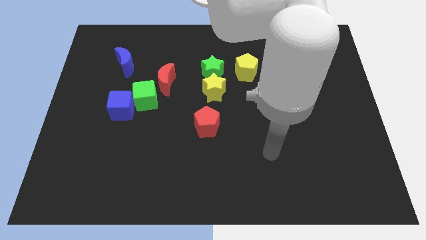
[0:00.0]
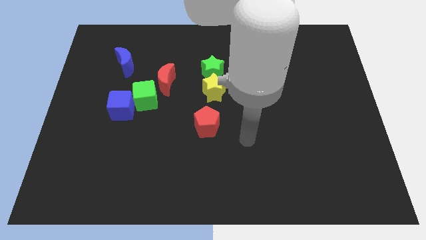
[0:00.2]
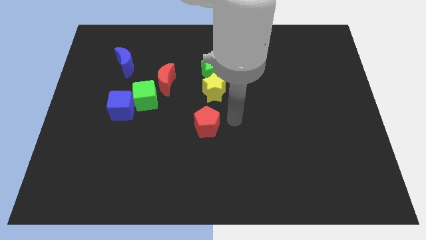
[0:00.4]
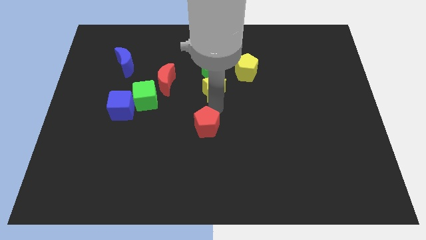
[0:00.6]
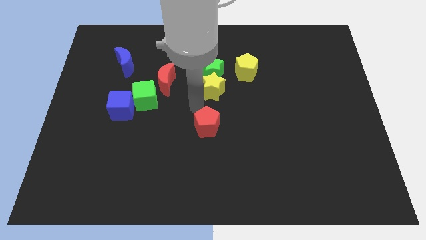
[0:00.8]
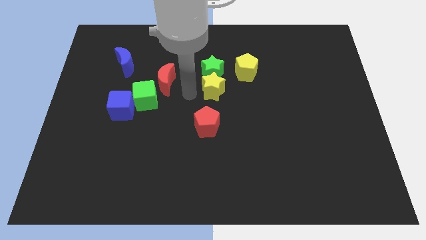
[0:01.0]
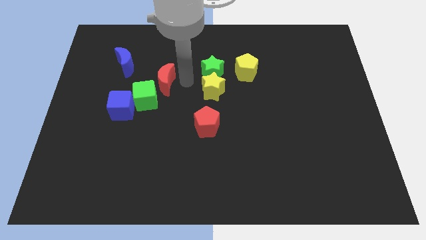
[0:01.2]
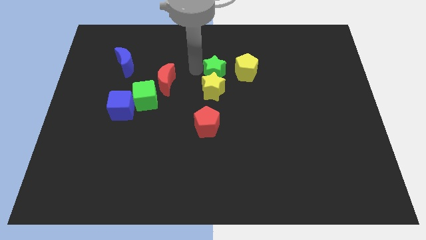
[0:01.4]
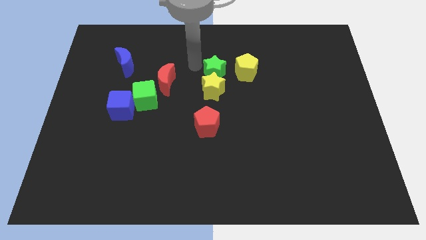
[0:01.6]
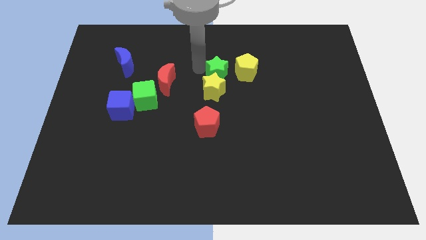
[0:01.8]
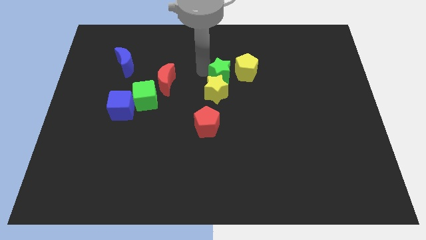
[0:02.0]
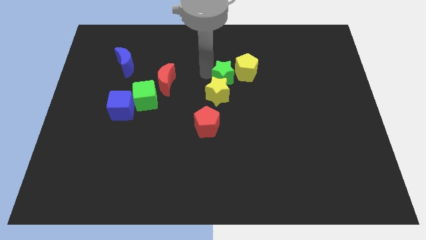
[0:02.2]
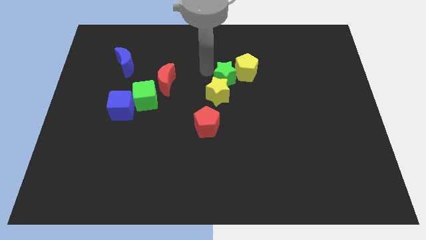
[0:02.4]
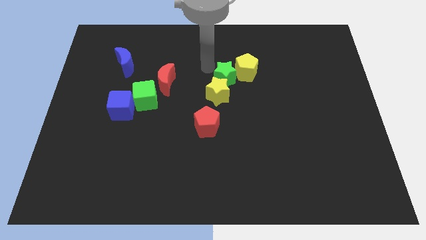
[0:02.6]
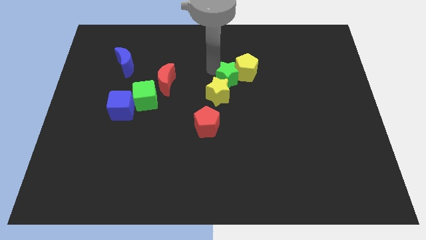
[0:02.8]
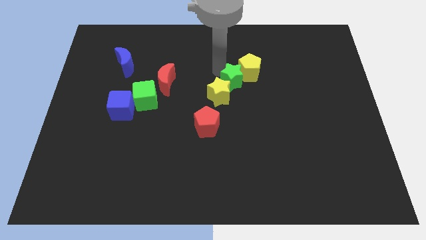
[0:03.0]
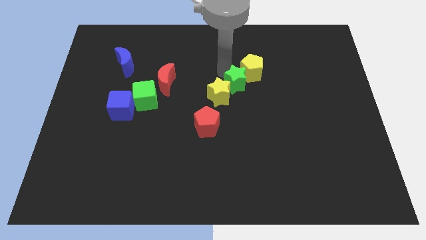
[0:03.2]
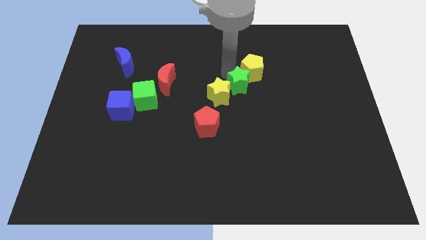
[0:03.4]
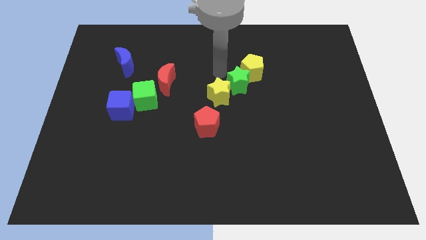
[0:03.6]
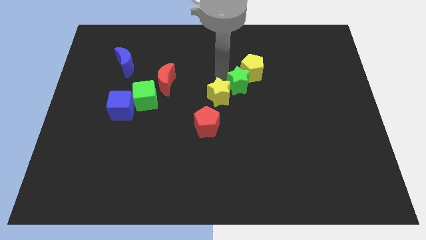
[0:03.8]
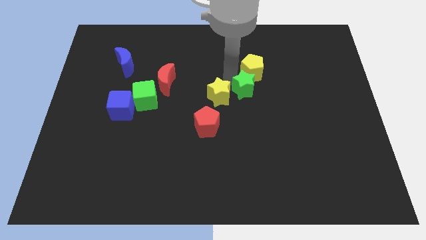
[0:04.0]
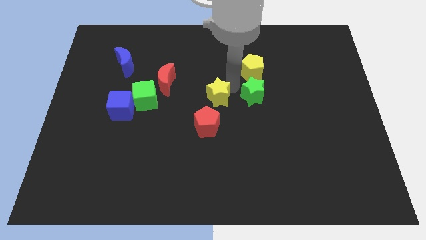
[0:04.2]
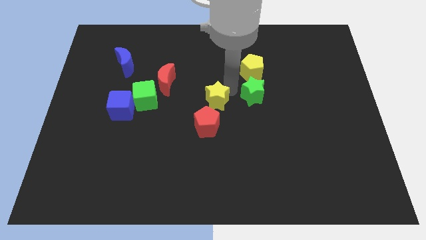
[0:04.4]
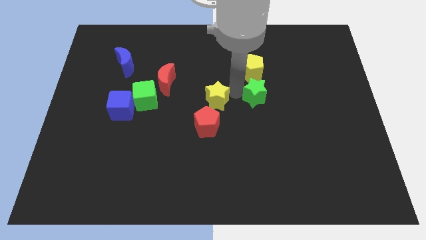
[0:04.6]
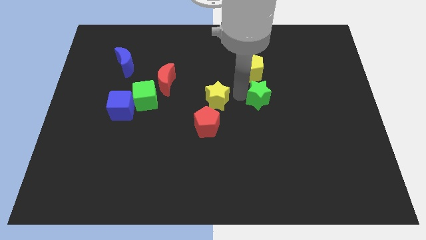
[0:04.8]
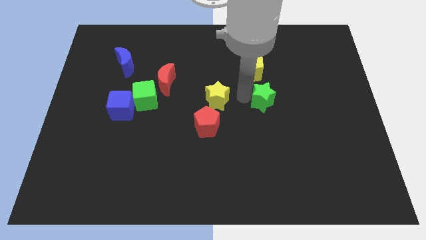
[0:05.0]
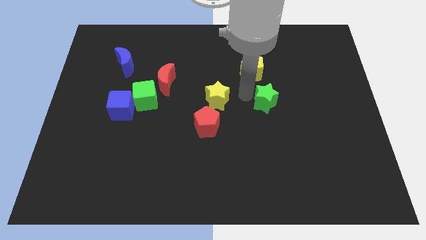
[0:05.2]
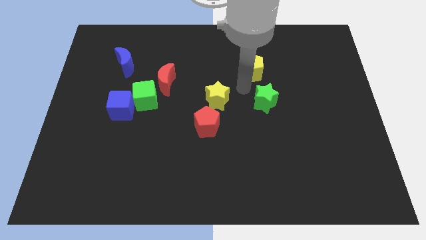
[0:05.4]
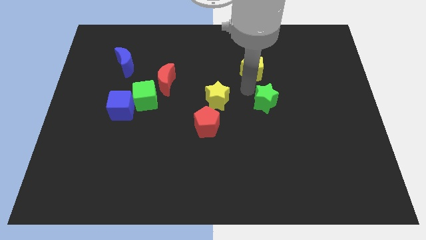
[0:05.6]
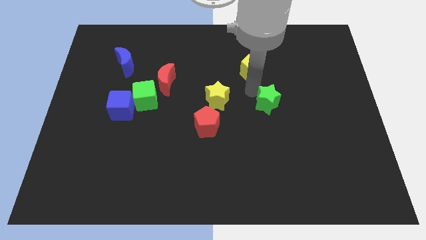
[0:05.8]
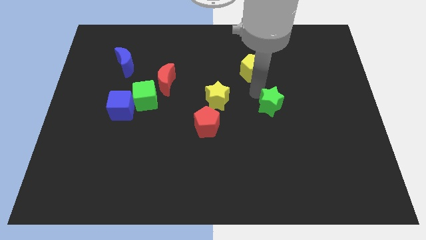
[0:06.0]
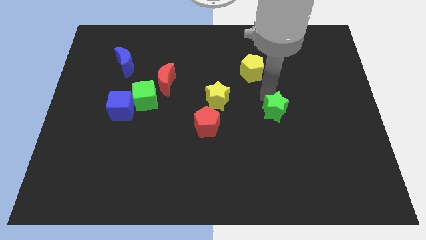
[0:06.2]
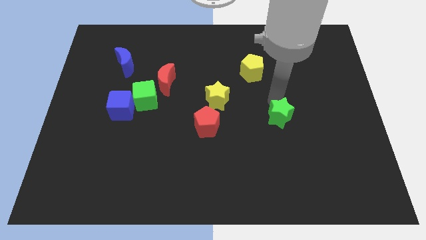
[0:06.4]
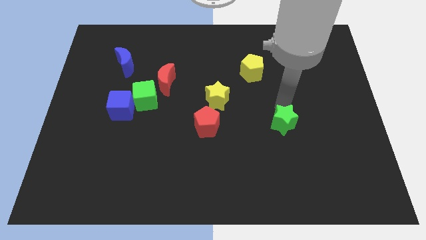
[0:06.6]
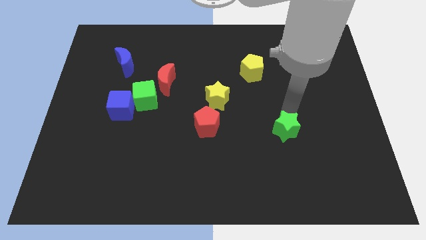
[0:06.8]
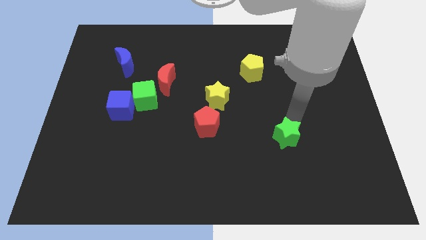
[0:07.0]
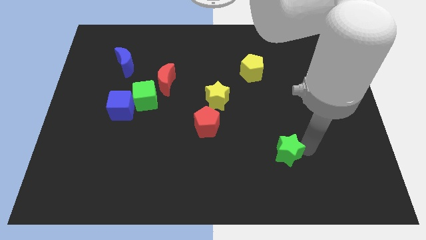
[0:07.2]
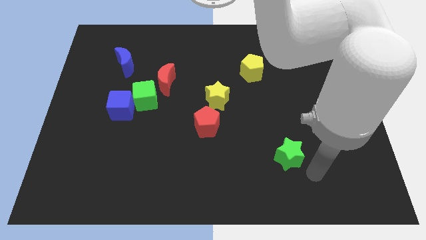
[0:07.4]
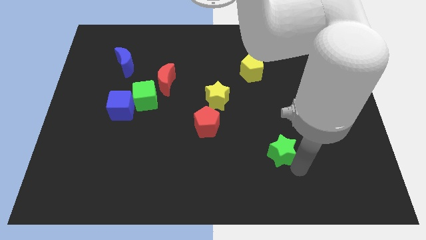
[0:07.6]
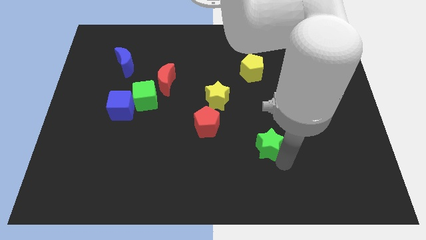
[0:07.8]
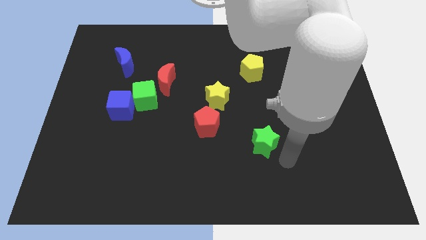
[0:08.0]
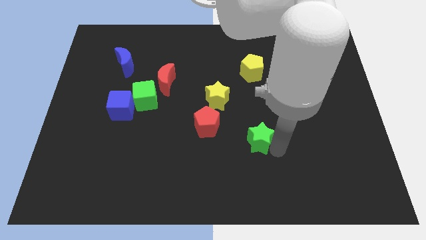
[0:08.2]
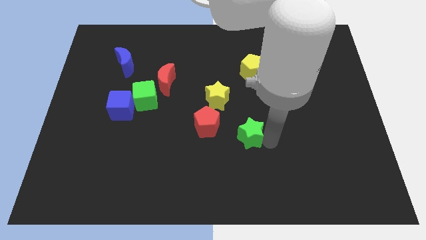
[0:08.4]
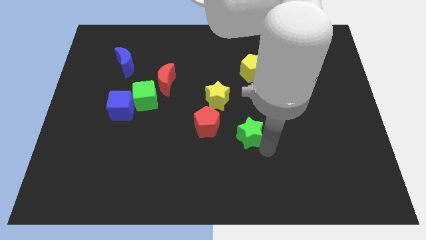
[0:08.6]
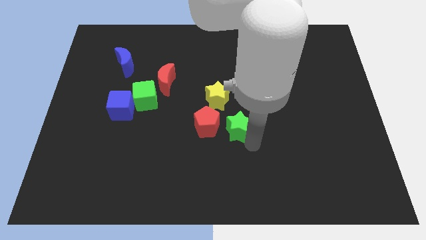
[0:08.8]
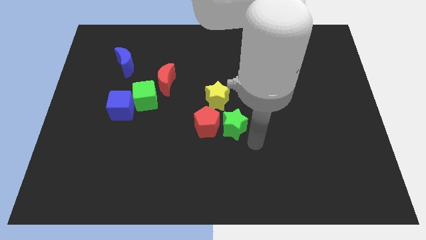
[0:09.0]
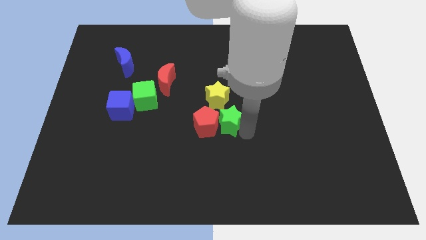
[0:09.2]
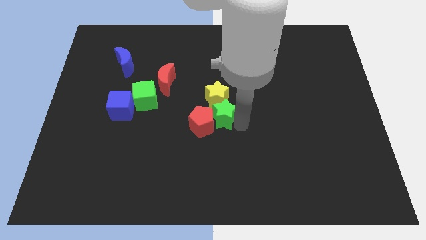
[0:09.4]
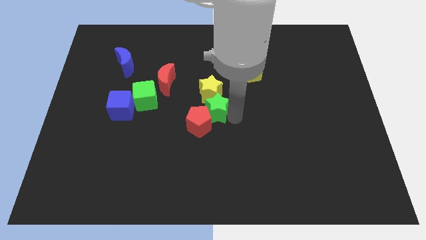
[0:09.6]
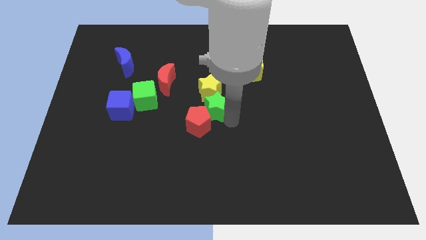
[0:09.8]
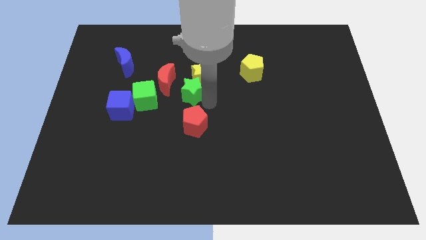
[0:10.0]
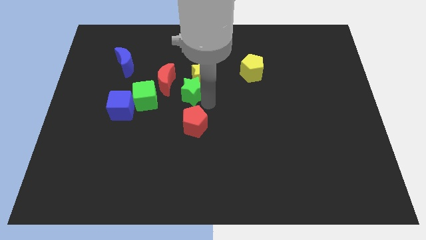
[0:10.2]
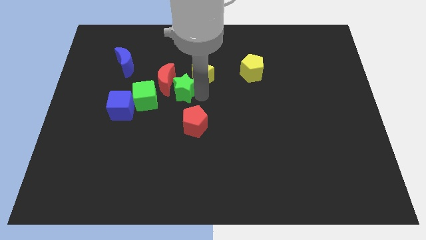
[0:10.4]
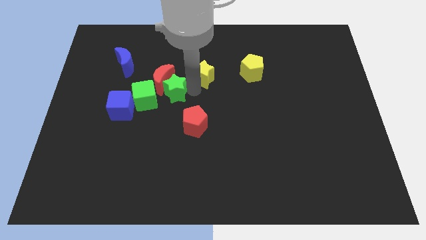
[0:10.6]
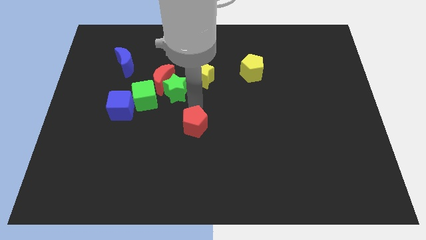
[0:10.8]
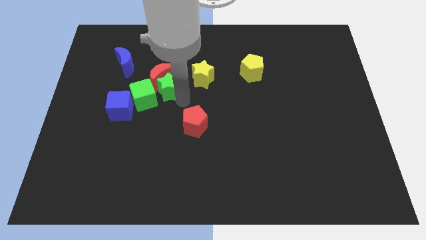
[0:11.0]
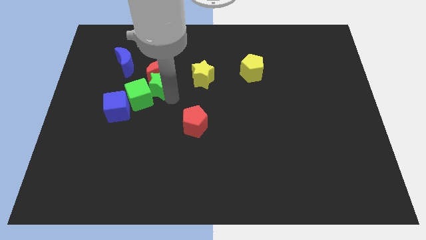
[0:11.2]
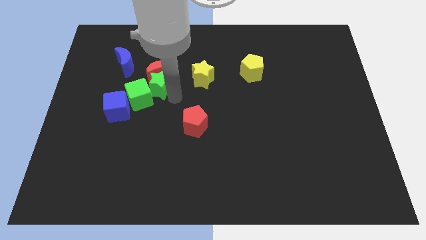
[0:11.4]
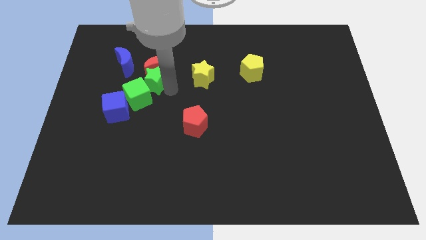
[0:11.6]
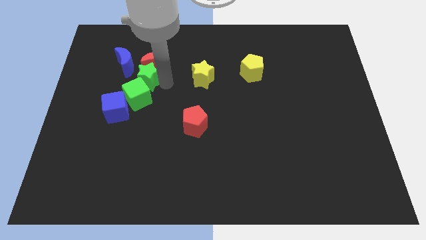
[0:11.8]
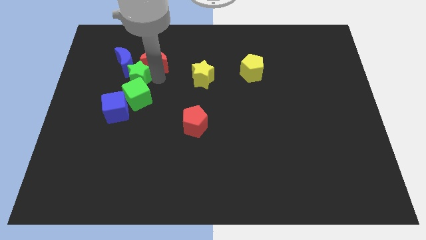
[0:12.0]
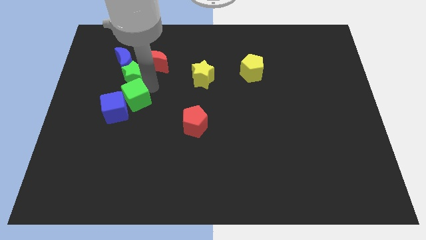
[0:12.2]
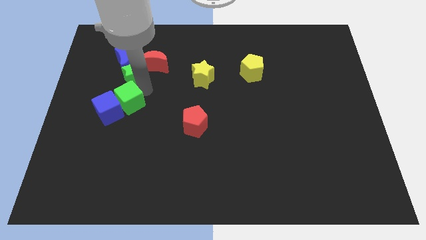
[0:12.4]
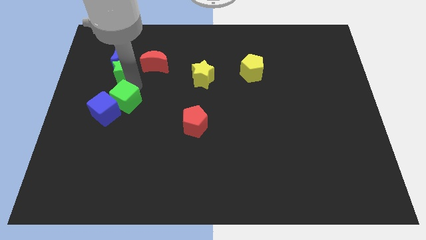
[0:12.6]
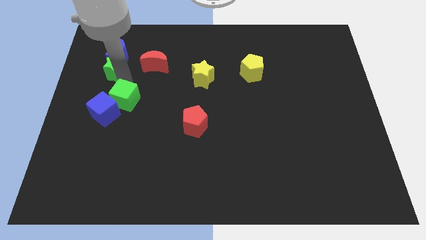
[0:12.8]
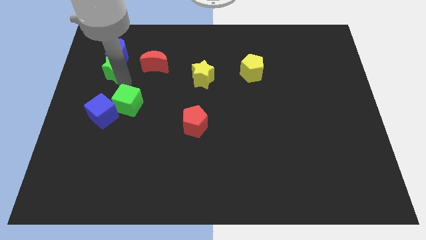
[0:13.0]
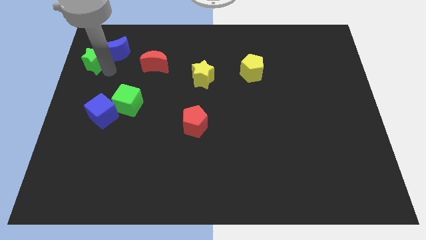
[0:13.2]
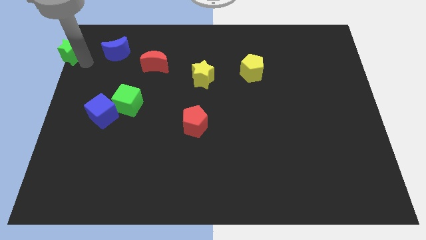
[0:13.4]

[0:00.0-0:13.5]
push the green star to the top left of the board
